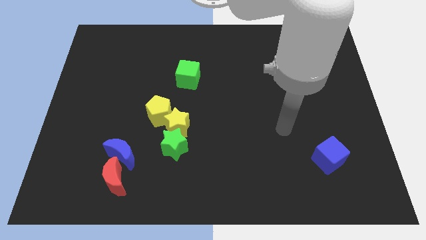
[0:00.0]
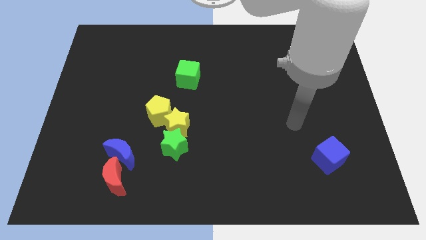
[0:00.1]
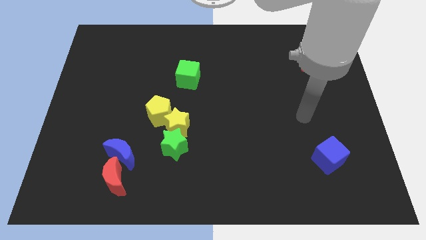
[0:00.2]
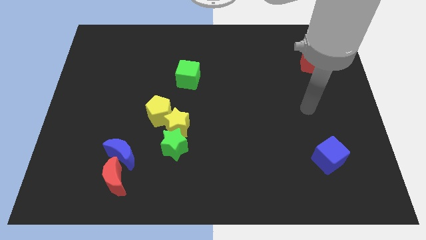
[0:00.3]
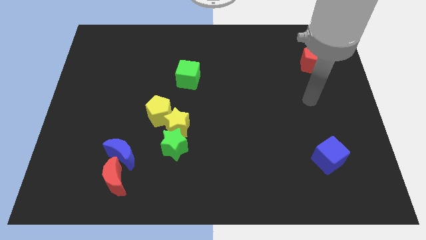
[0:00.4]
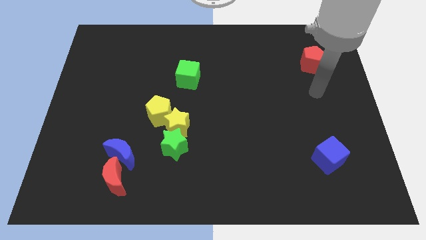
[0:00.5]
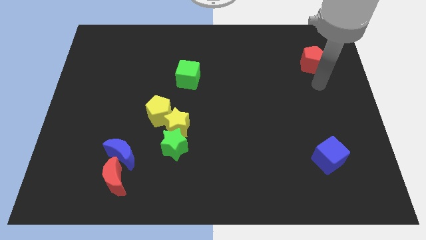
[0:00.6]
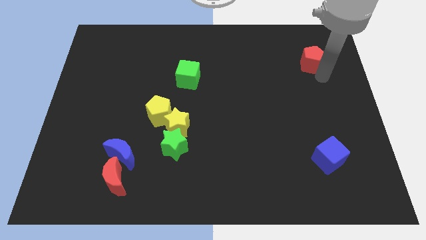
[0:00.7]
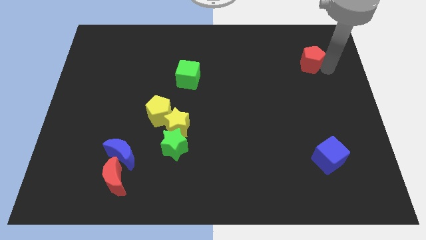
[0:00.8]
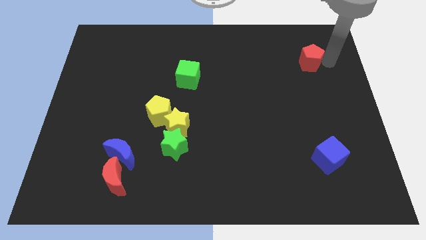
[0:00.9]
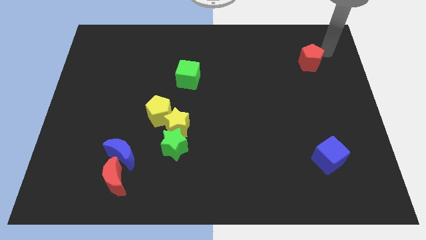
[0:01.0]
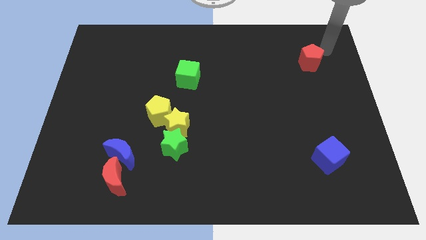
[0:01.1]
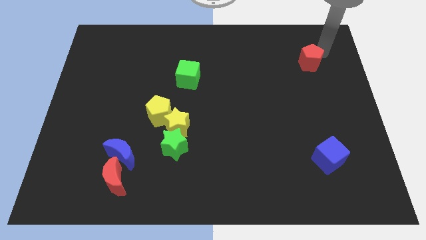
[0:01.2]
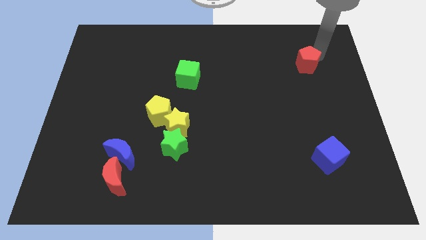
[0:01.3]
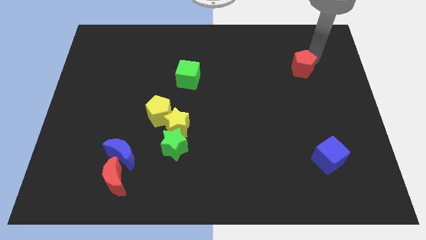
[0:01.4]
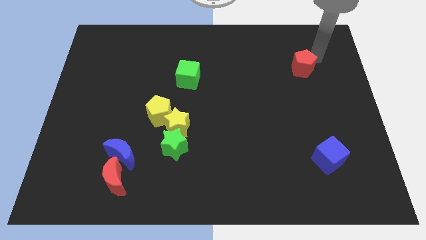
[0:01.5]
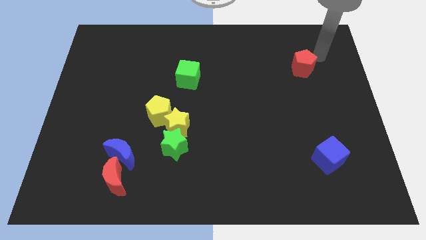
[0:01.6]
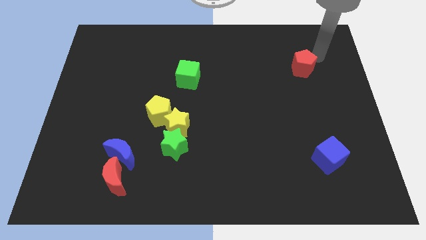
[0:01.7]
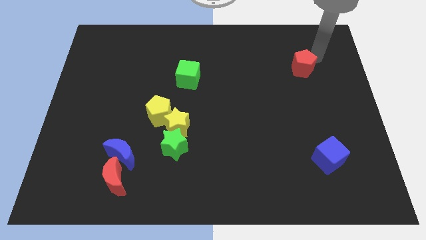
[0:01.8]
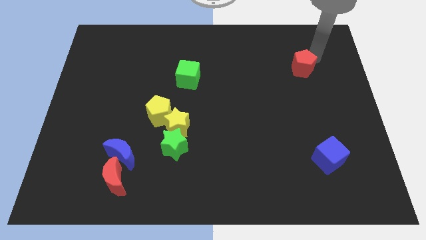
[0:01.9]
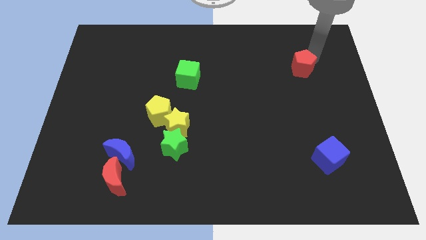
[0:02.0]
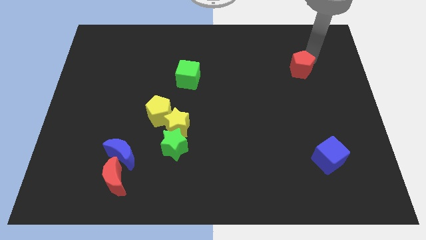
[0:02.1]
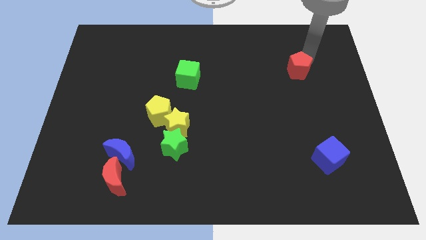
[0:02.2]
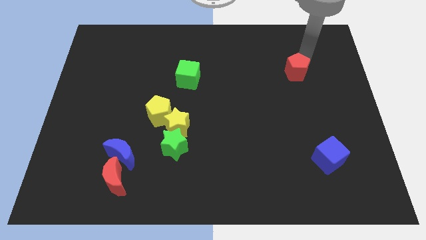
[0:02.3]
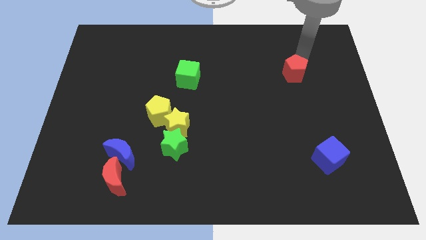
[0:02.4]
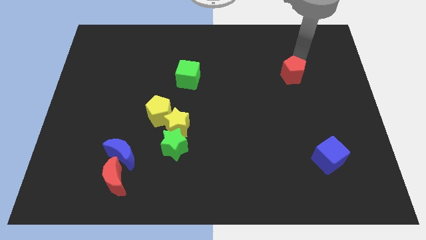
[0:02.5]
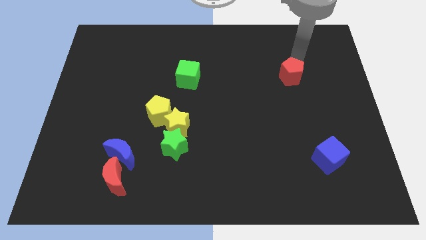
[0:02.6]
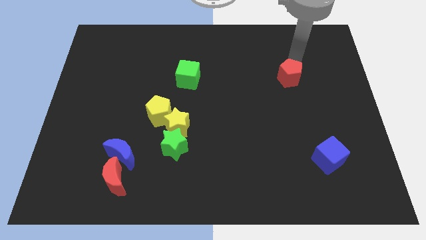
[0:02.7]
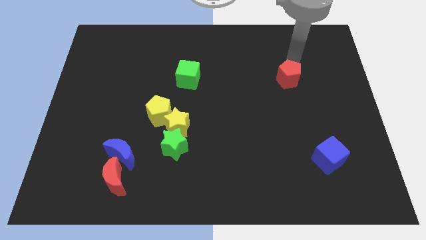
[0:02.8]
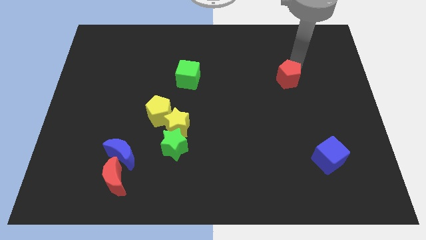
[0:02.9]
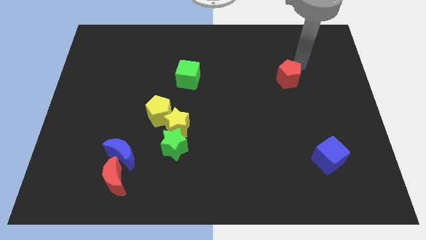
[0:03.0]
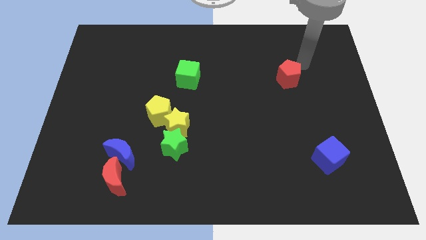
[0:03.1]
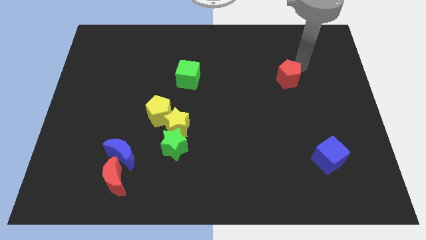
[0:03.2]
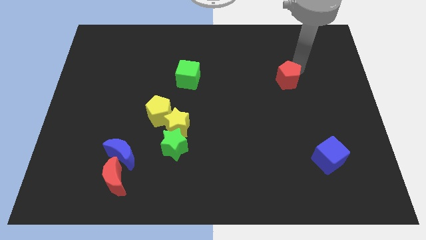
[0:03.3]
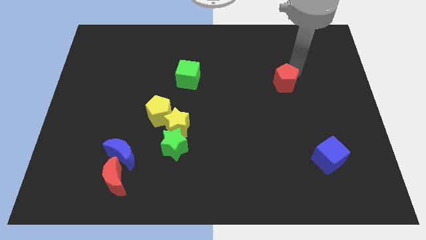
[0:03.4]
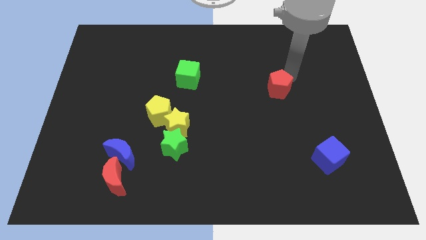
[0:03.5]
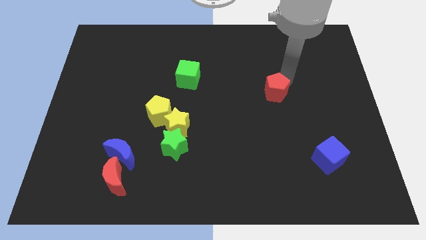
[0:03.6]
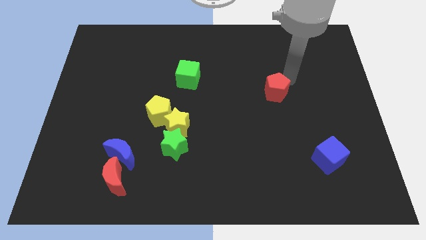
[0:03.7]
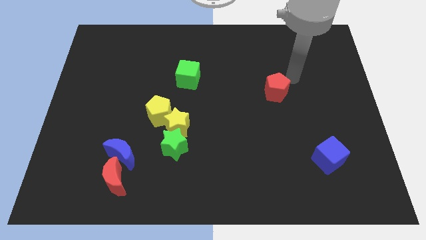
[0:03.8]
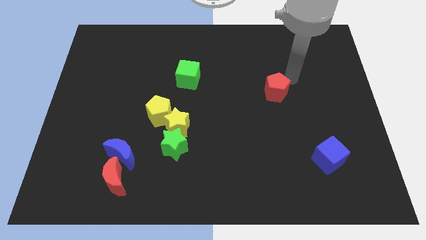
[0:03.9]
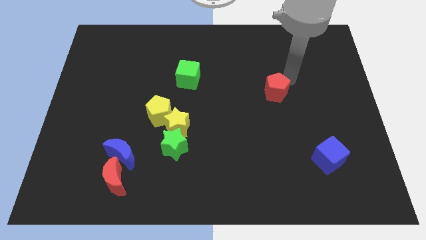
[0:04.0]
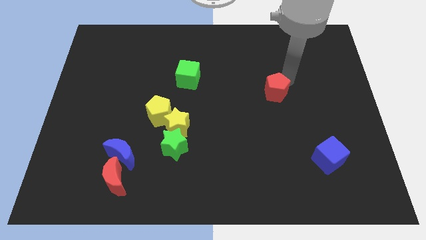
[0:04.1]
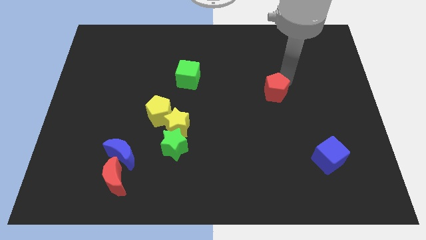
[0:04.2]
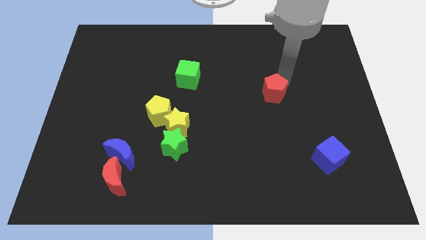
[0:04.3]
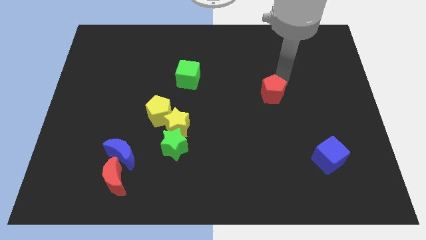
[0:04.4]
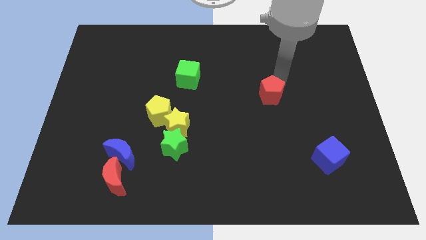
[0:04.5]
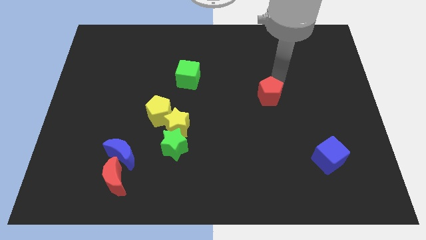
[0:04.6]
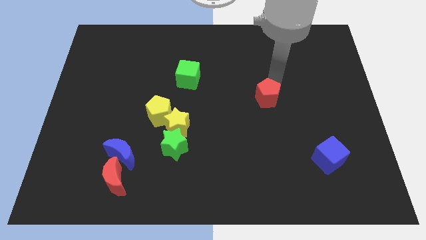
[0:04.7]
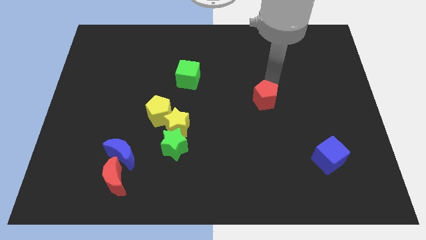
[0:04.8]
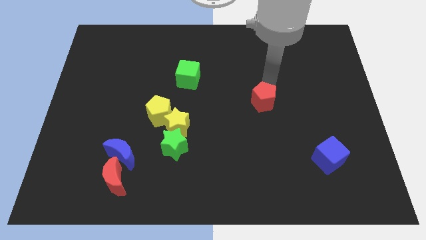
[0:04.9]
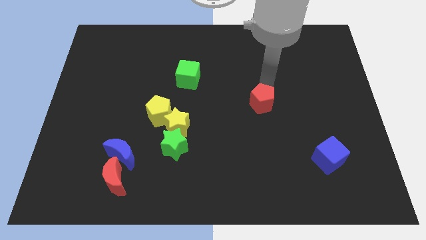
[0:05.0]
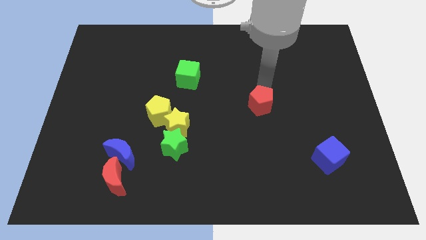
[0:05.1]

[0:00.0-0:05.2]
move the red pentagon diagonally down and to the left

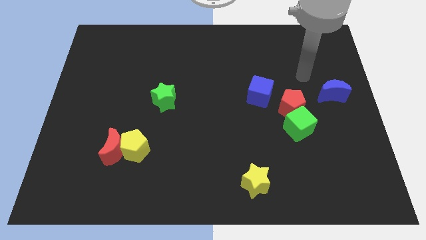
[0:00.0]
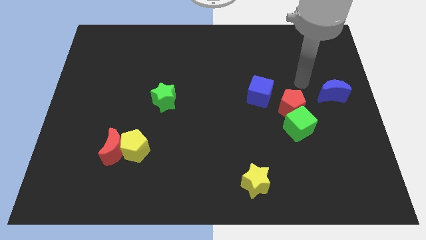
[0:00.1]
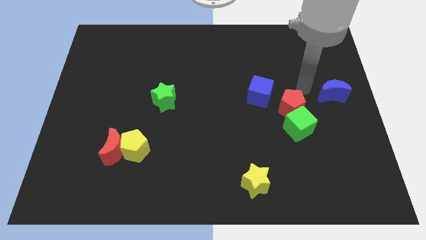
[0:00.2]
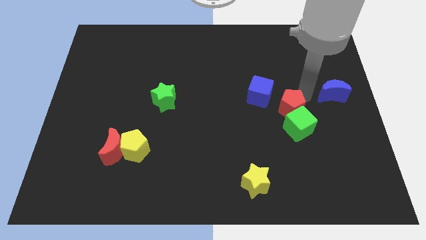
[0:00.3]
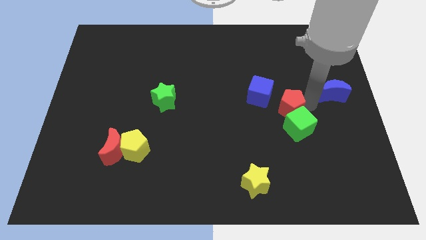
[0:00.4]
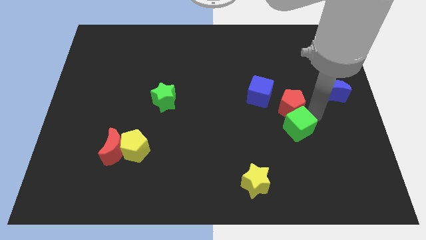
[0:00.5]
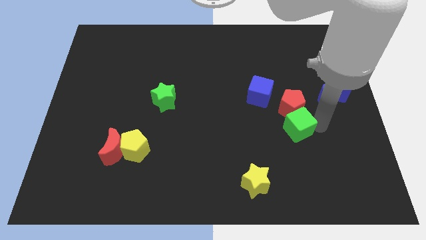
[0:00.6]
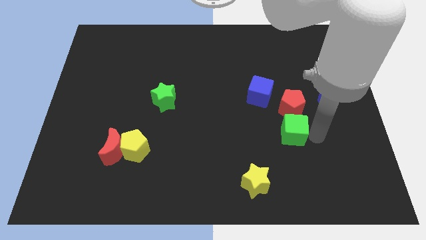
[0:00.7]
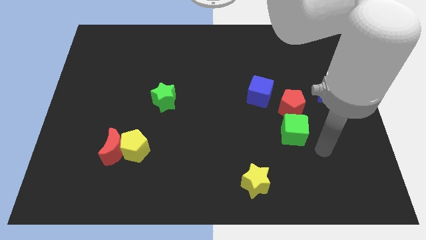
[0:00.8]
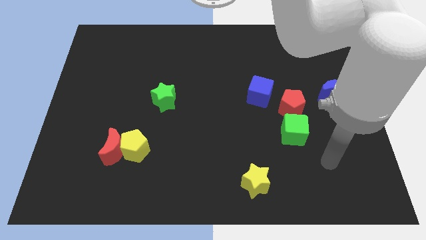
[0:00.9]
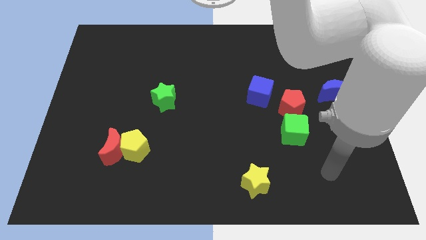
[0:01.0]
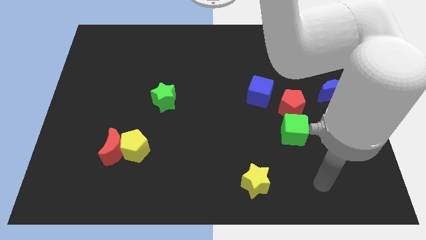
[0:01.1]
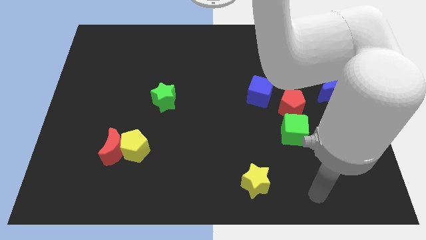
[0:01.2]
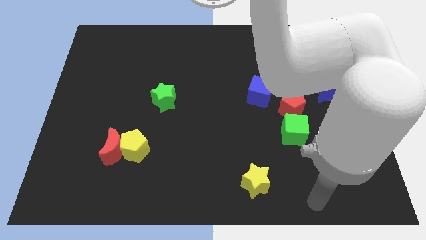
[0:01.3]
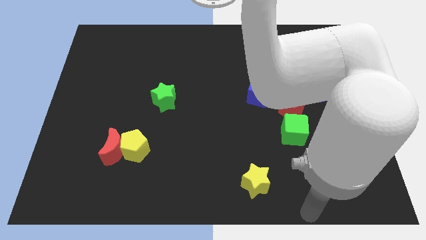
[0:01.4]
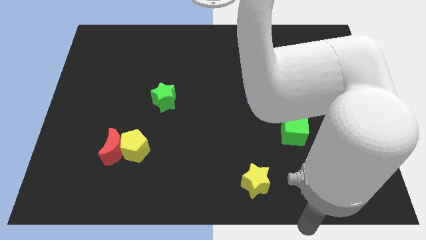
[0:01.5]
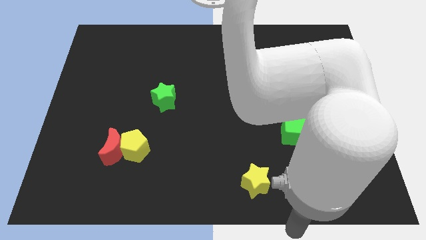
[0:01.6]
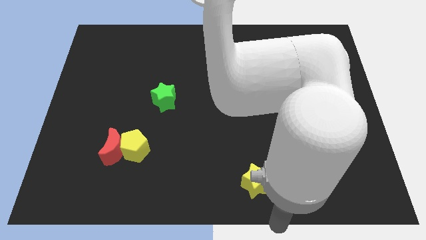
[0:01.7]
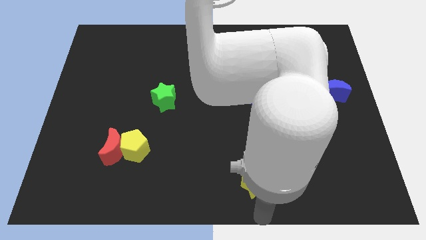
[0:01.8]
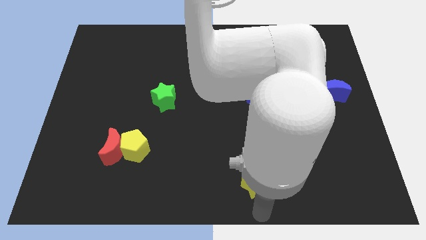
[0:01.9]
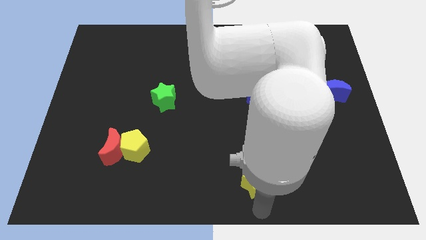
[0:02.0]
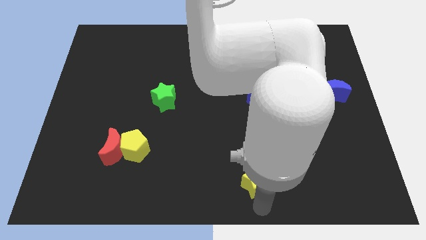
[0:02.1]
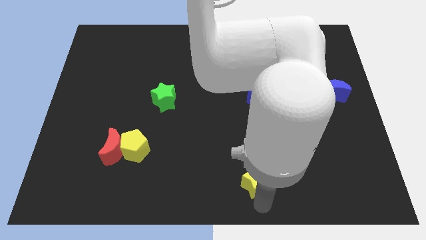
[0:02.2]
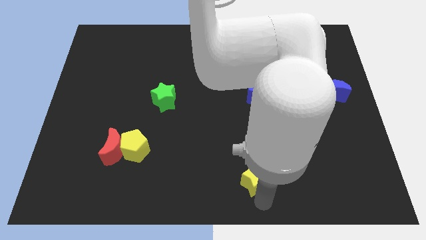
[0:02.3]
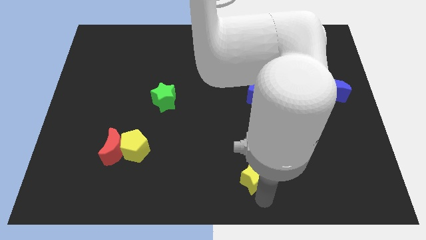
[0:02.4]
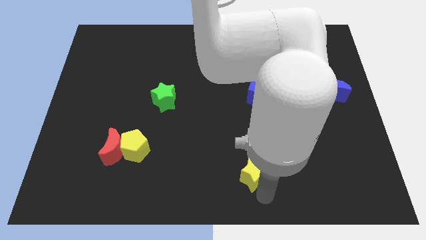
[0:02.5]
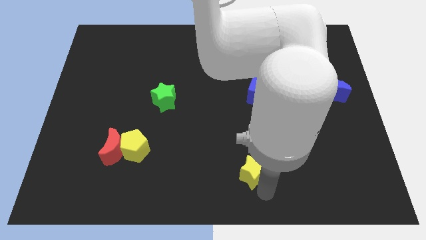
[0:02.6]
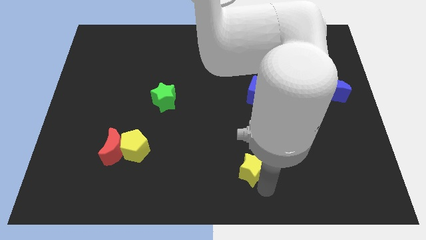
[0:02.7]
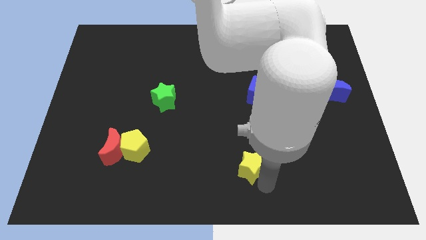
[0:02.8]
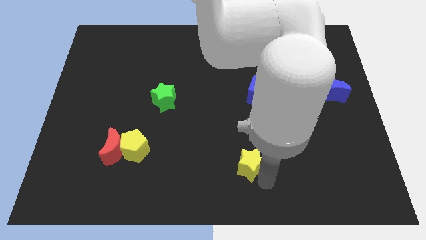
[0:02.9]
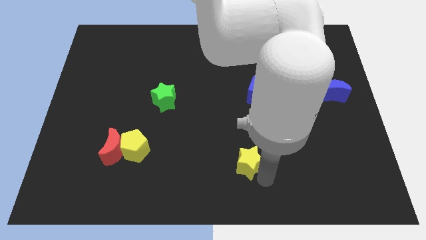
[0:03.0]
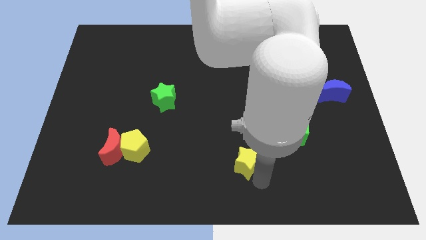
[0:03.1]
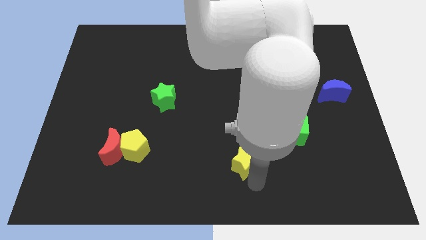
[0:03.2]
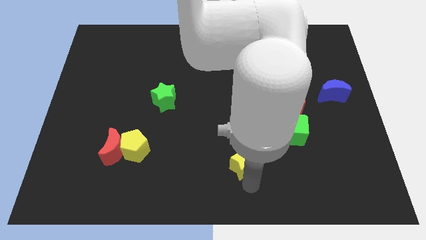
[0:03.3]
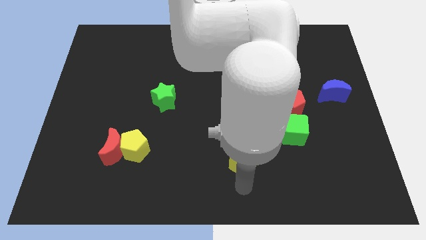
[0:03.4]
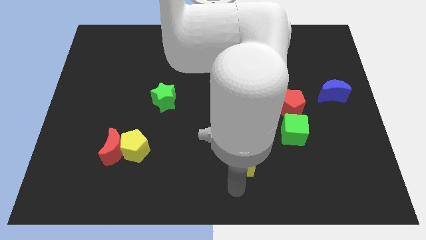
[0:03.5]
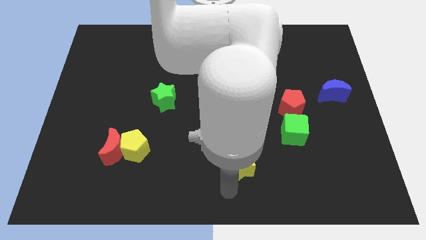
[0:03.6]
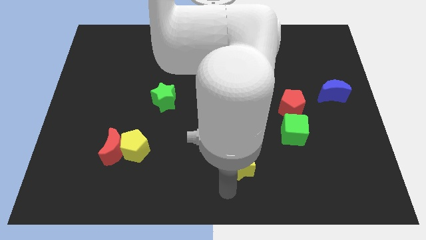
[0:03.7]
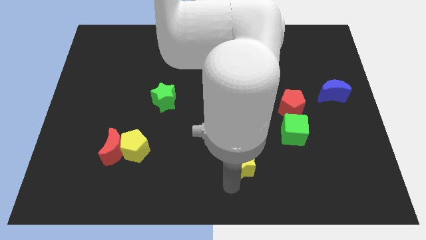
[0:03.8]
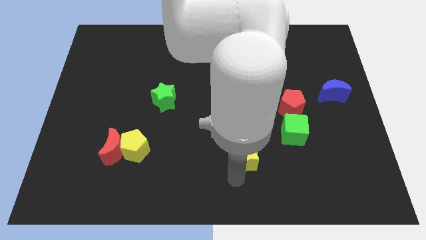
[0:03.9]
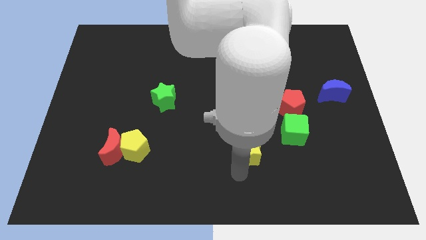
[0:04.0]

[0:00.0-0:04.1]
push the yellow star a little bit upwards
